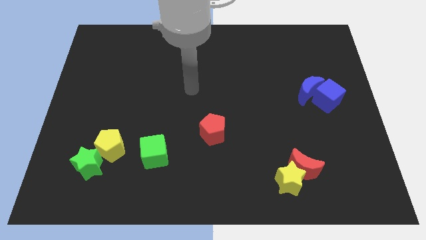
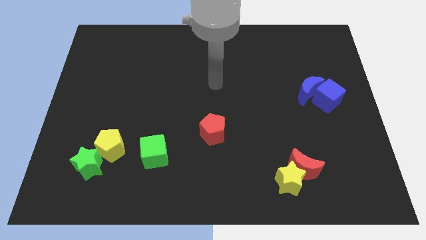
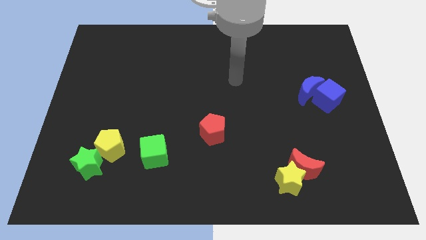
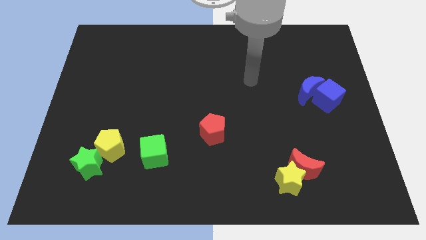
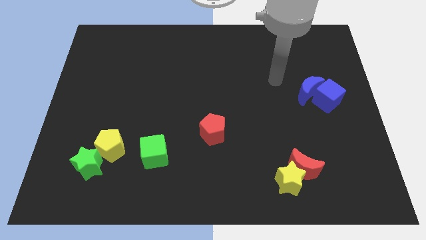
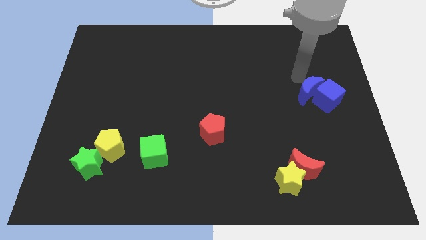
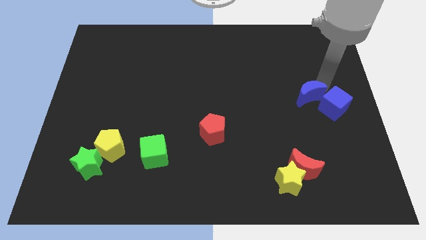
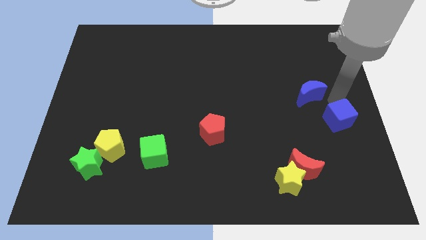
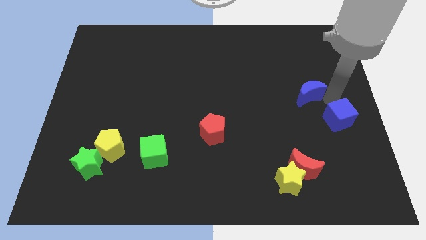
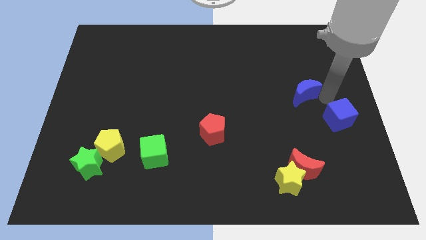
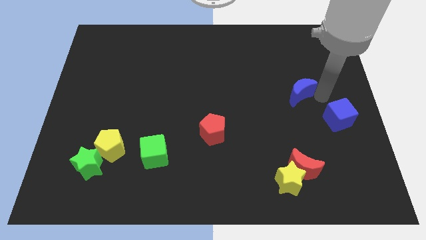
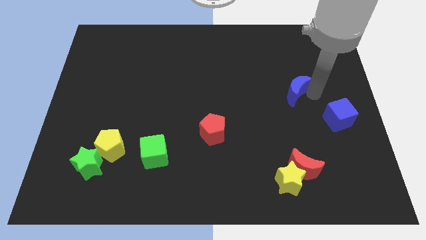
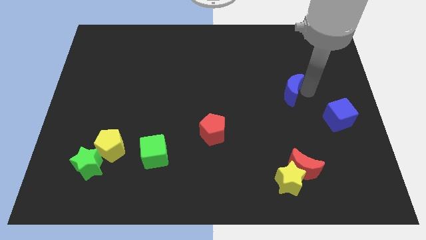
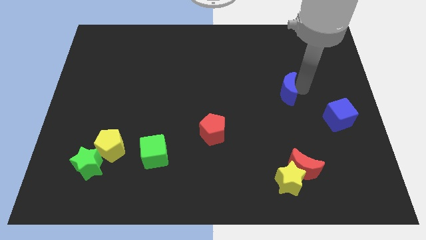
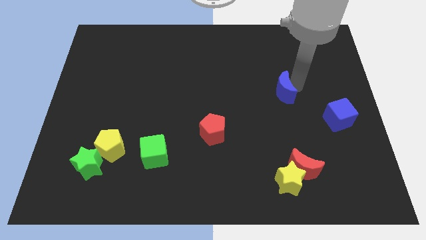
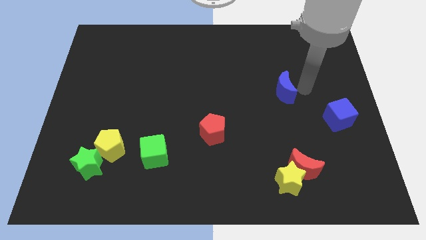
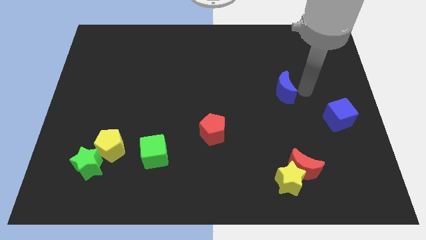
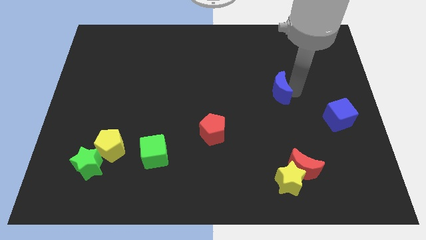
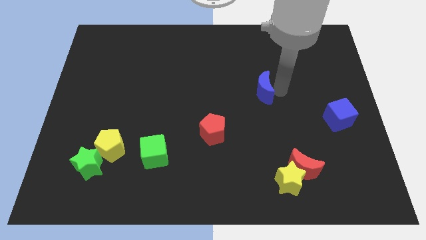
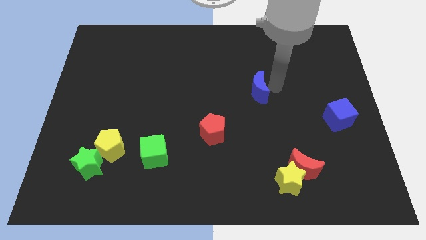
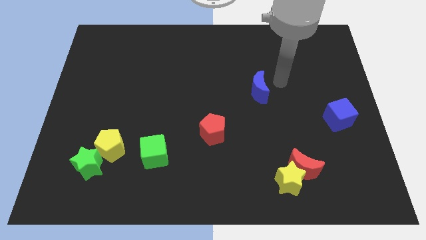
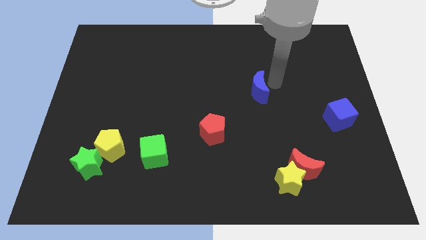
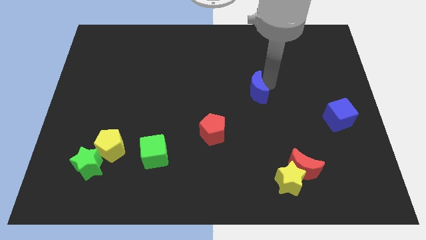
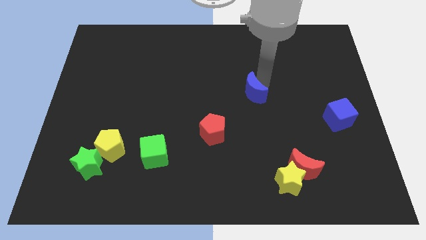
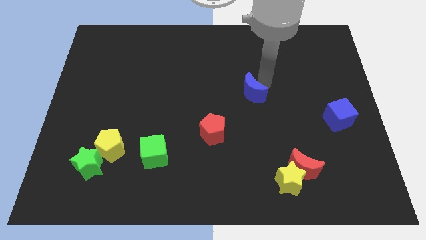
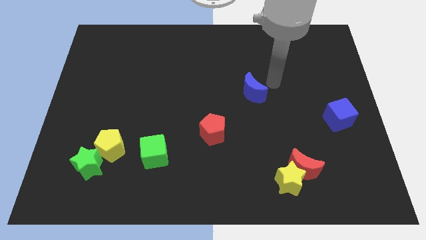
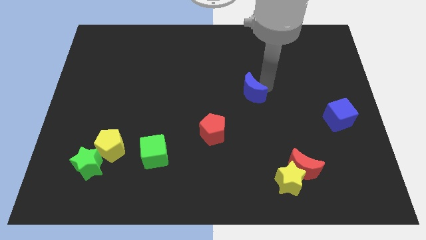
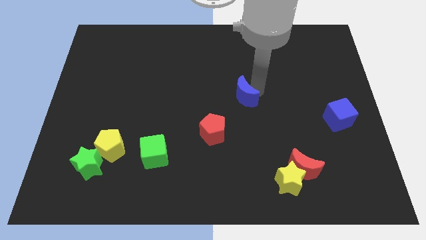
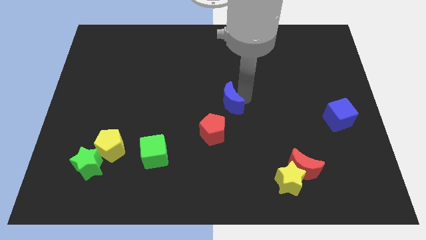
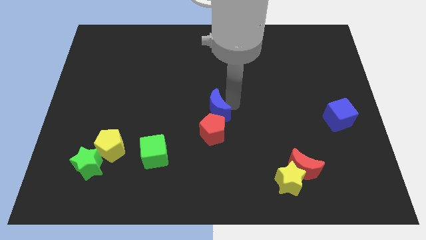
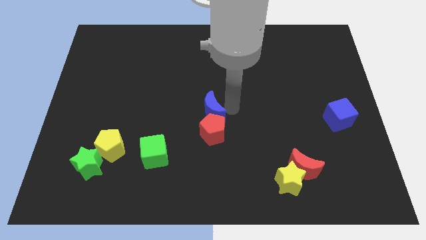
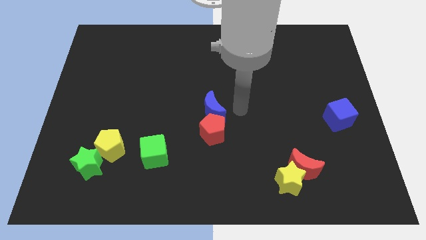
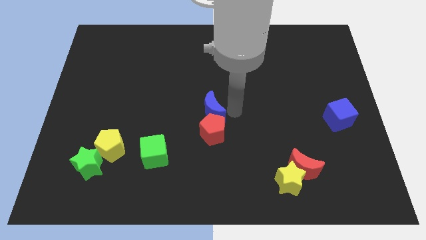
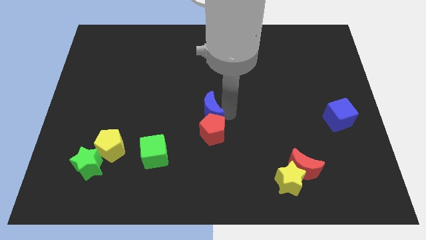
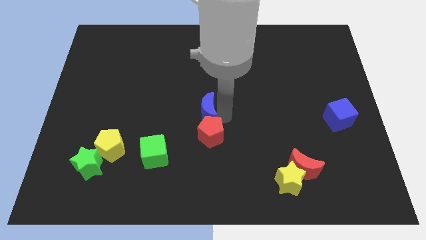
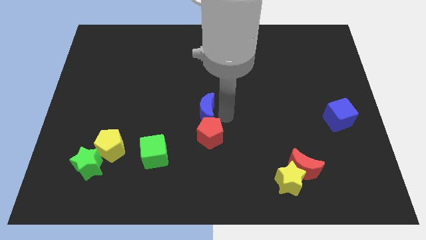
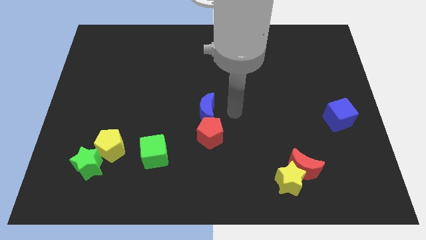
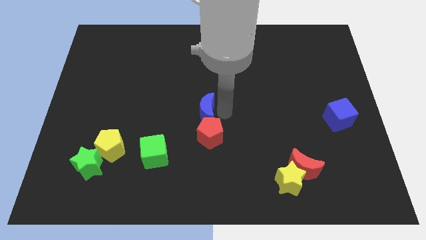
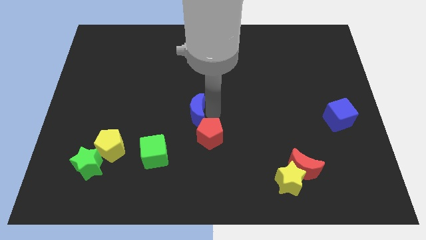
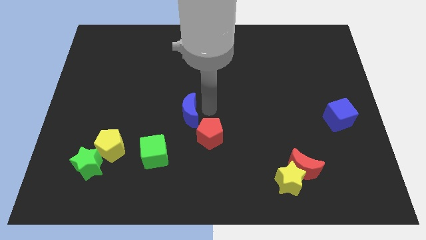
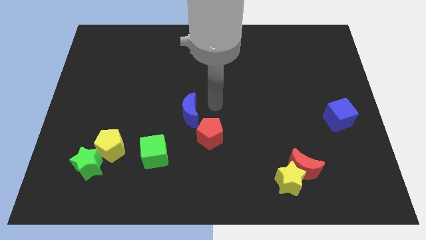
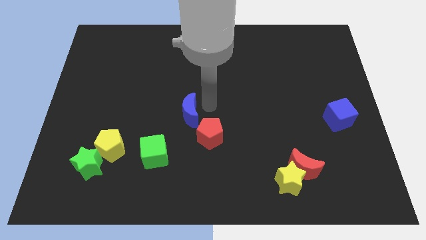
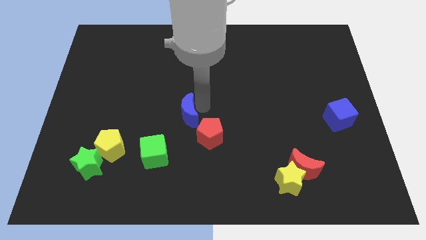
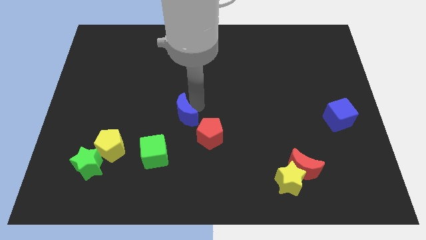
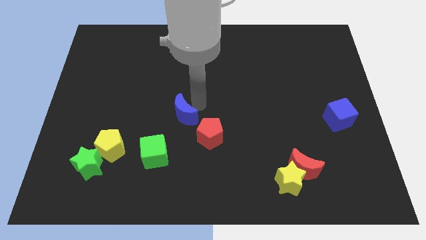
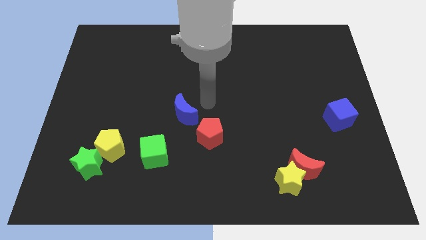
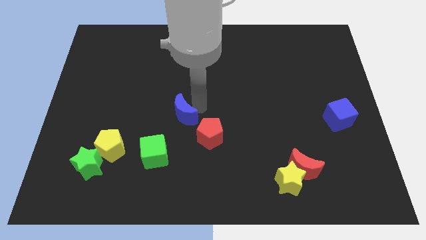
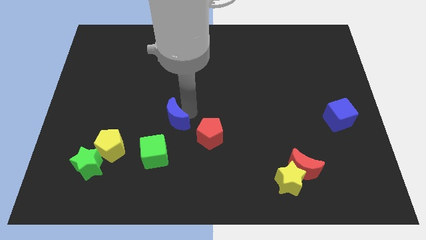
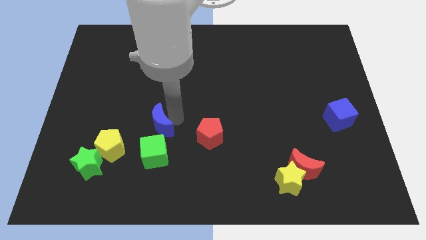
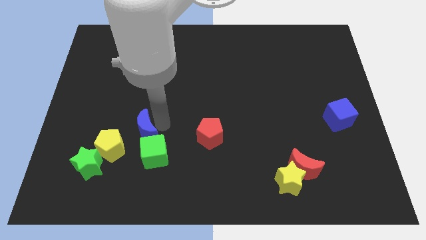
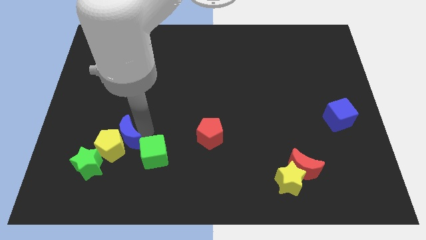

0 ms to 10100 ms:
put the blue moon towards the yellow pentagon

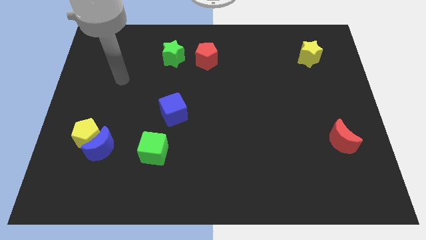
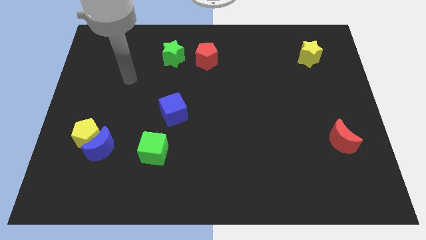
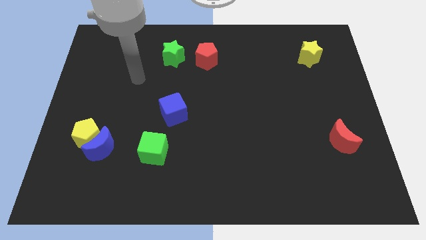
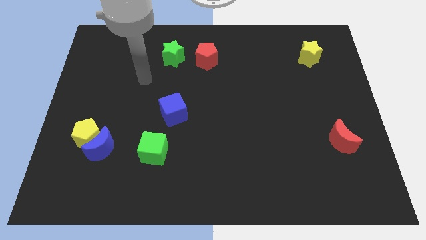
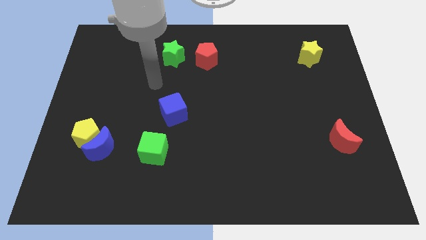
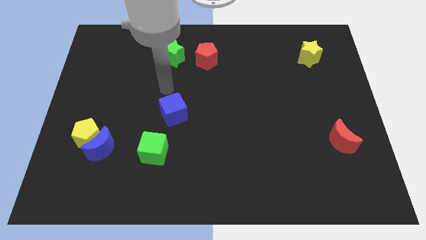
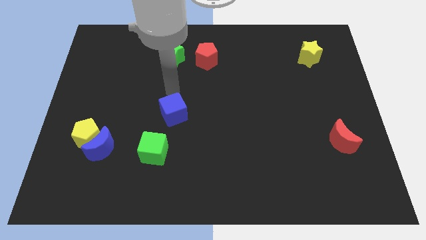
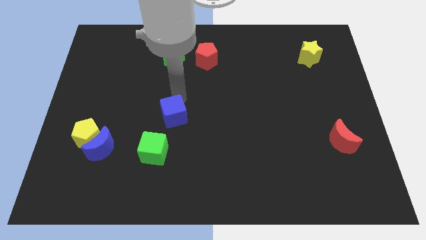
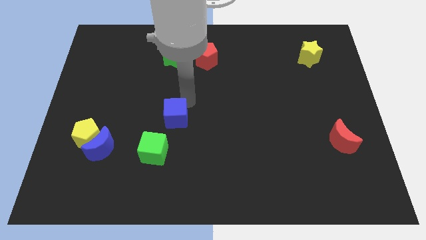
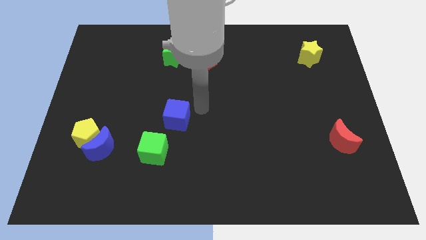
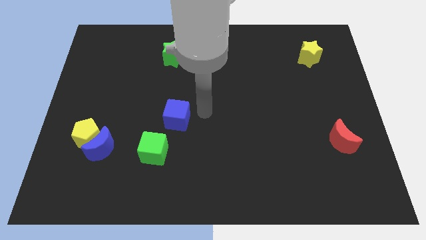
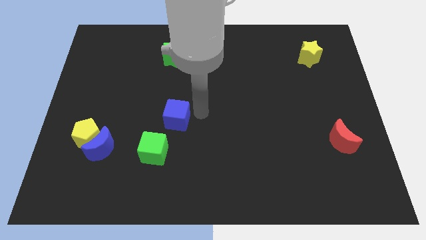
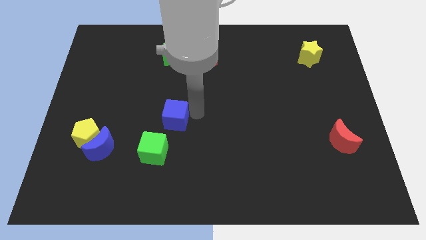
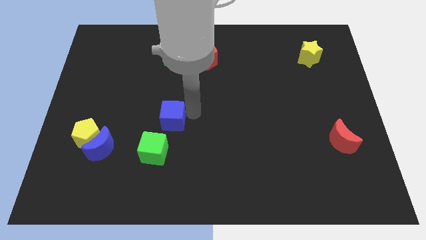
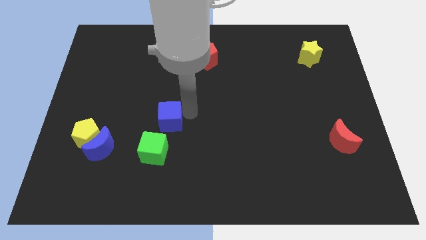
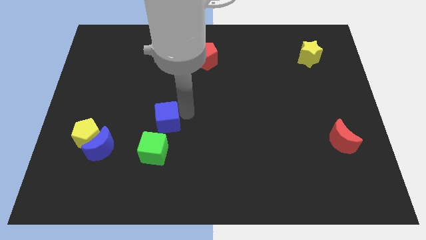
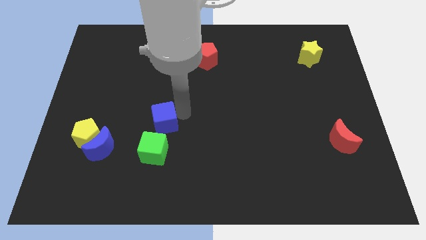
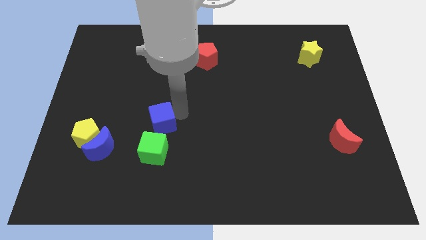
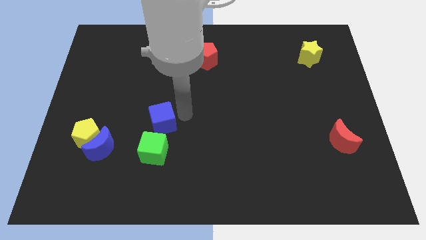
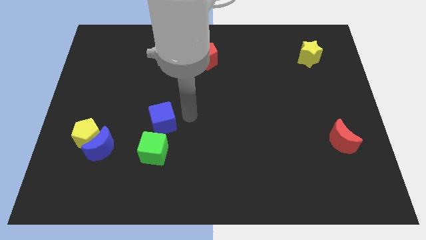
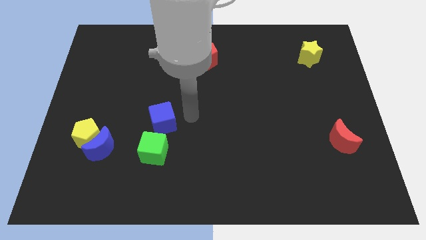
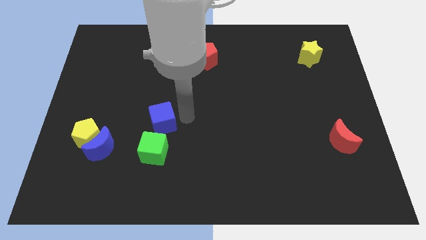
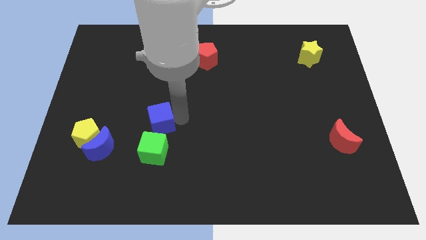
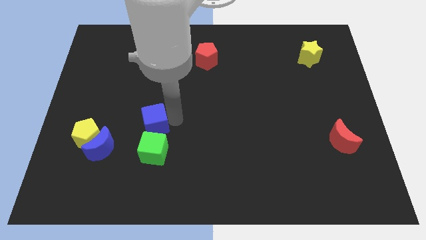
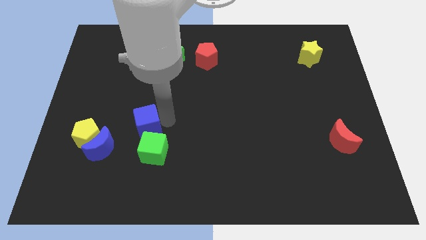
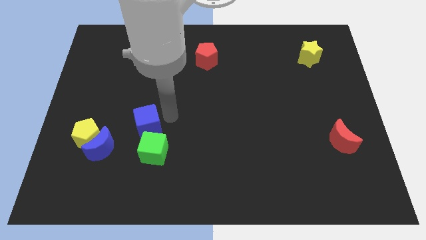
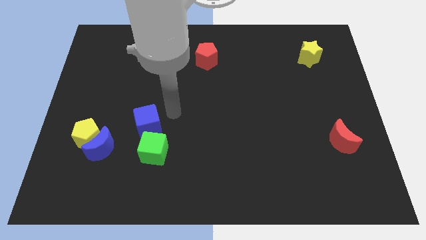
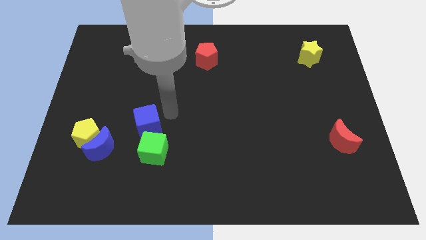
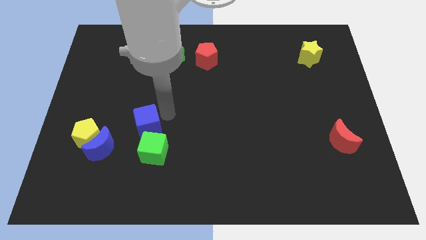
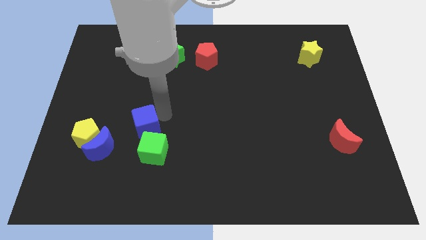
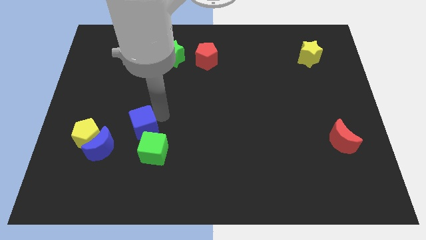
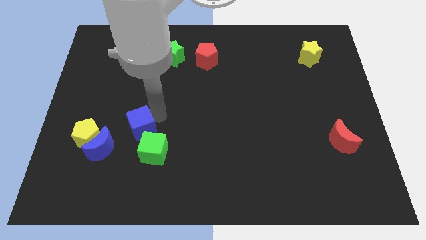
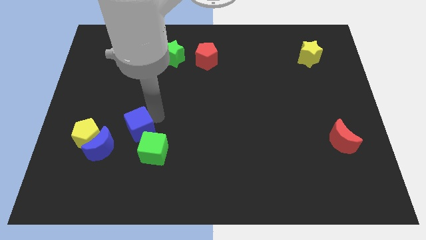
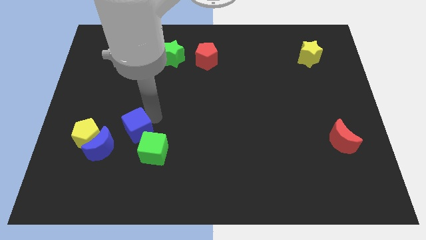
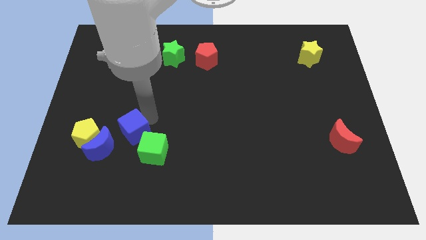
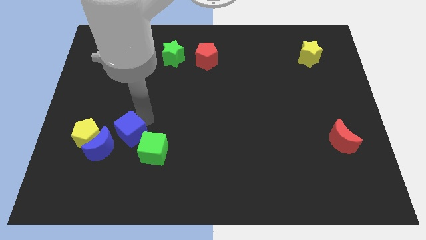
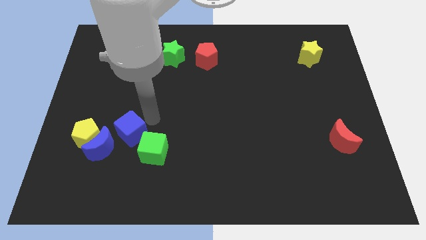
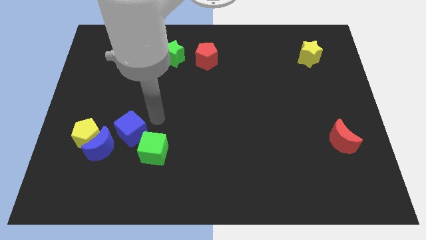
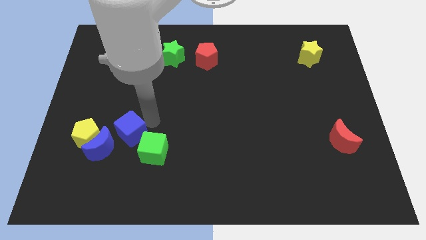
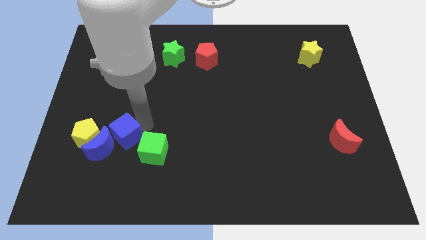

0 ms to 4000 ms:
push the blue cube close to the blue moon
